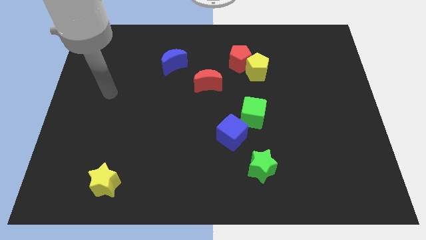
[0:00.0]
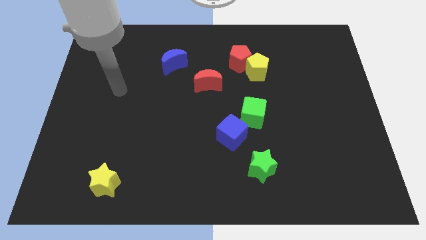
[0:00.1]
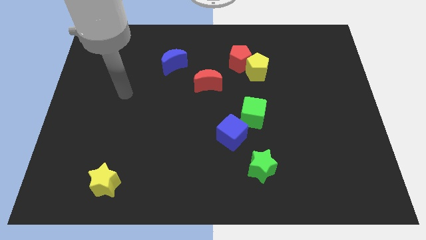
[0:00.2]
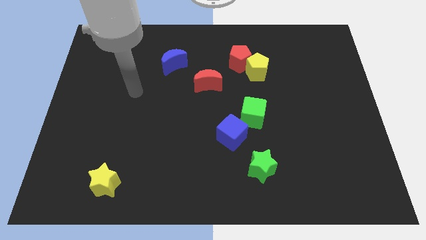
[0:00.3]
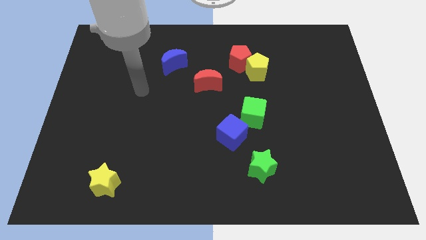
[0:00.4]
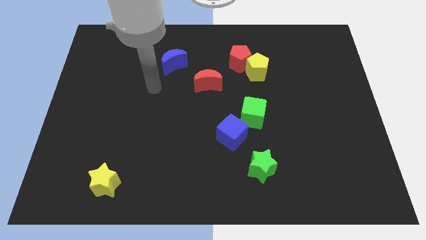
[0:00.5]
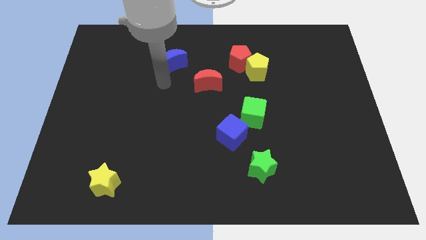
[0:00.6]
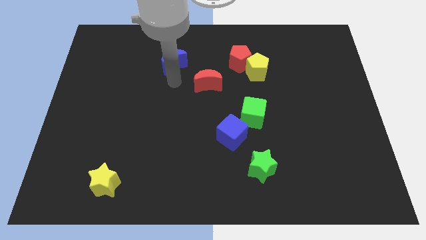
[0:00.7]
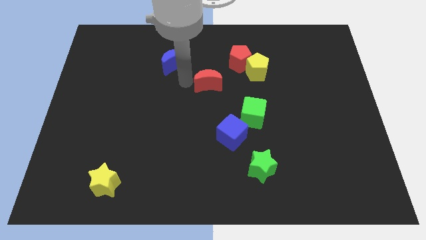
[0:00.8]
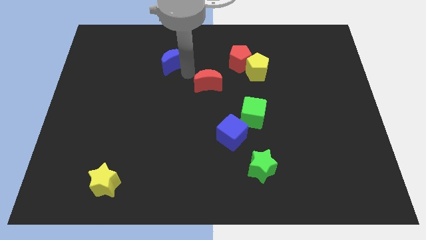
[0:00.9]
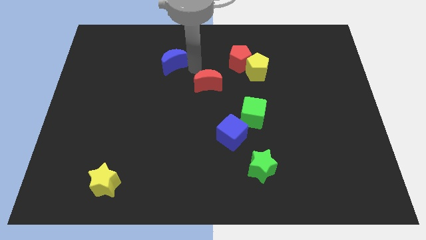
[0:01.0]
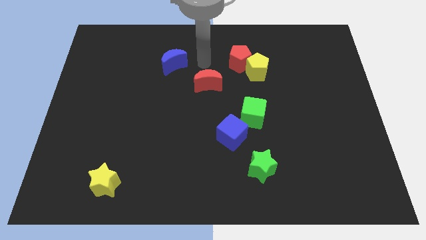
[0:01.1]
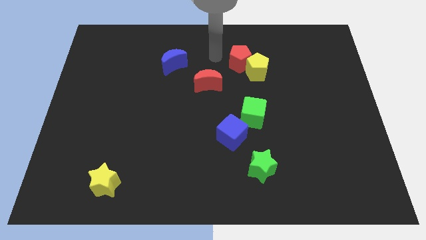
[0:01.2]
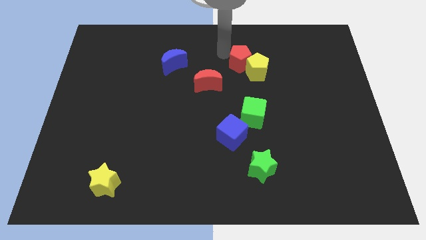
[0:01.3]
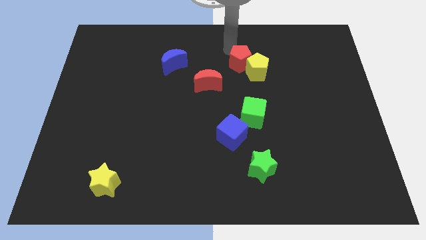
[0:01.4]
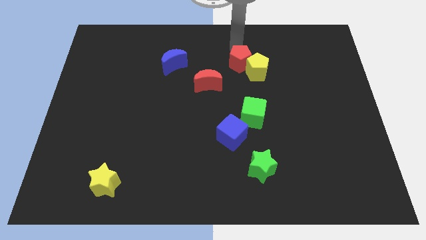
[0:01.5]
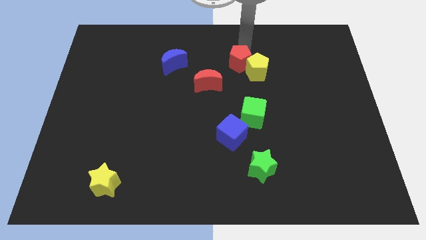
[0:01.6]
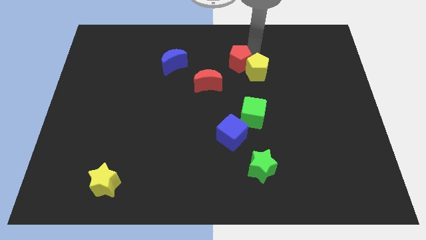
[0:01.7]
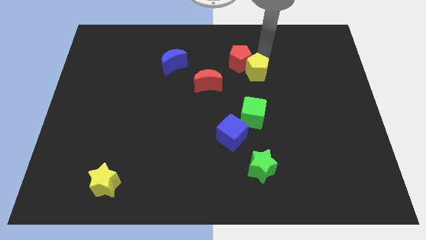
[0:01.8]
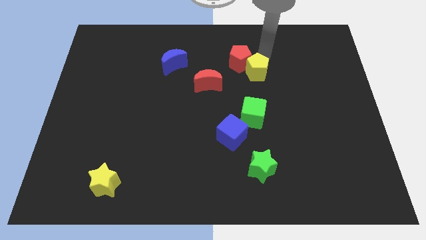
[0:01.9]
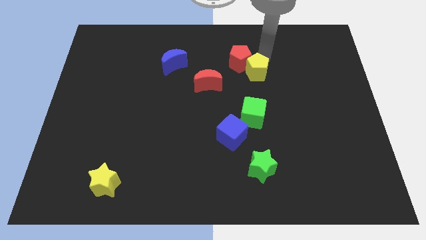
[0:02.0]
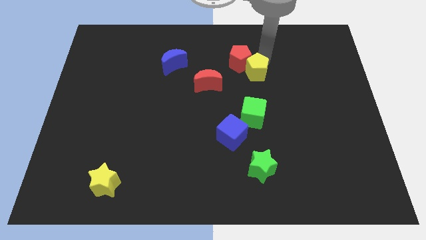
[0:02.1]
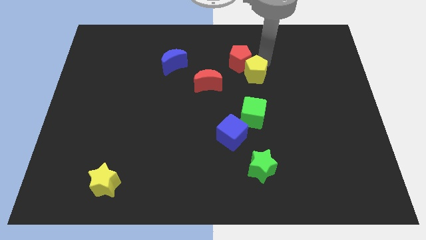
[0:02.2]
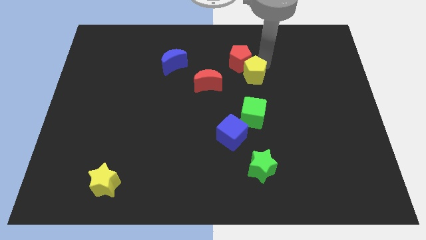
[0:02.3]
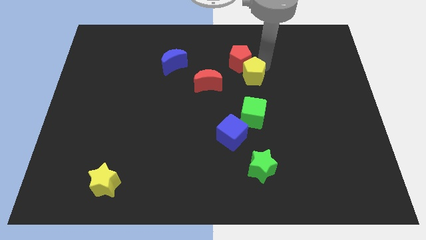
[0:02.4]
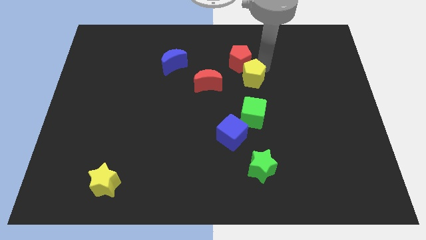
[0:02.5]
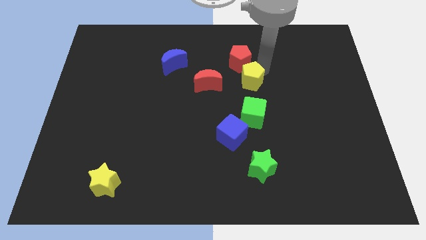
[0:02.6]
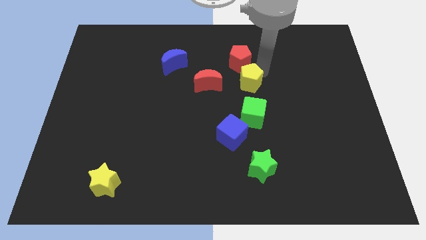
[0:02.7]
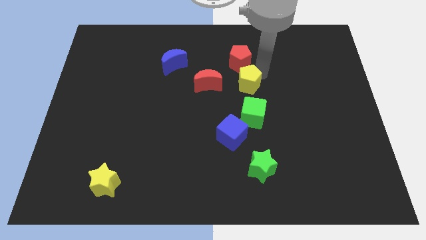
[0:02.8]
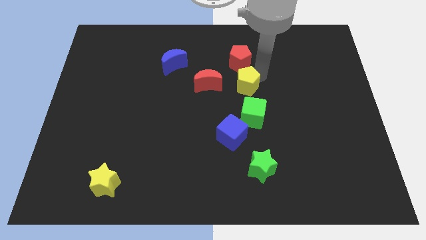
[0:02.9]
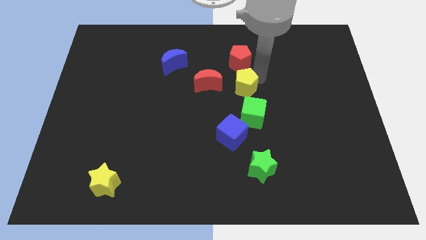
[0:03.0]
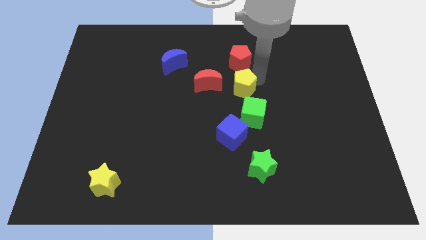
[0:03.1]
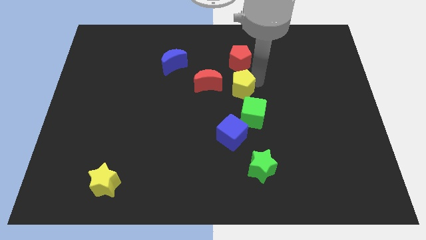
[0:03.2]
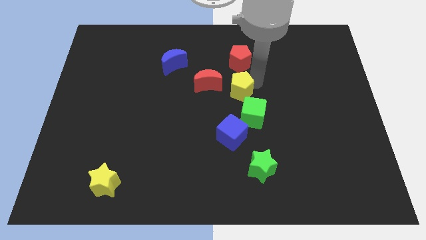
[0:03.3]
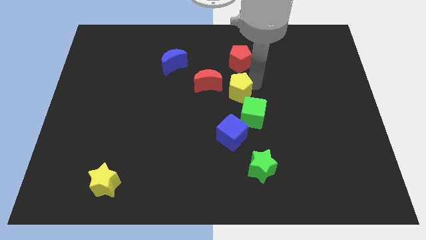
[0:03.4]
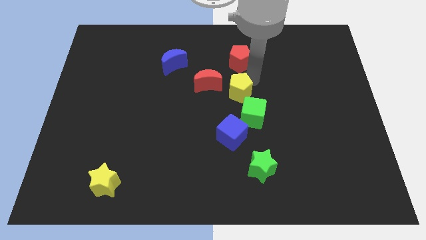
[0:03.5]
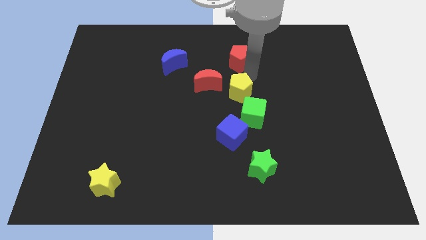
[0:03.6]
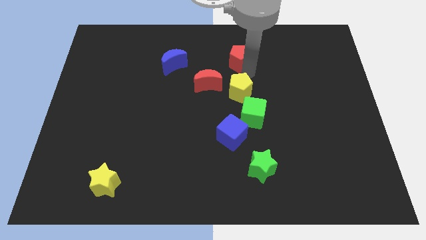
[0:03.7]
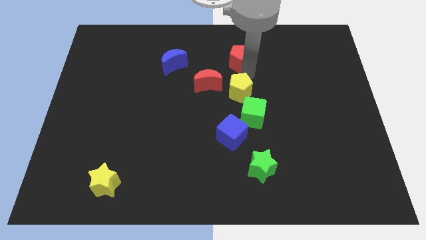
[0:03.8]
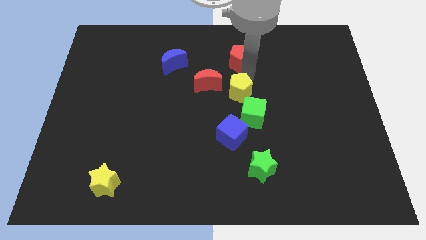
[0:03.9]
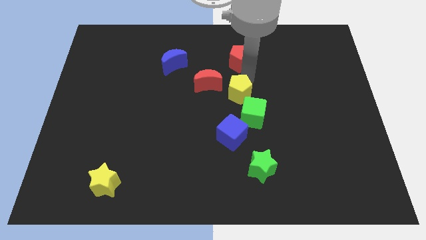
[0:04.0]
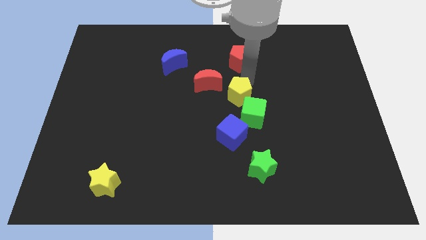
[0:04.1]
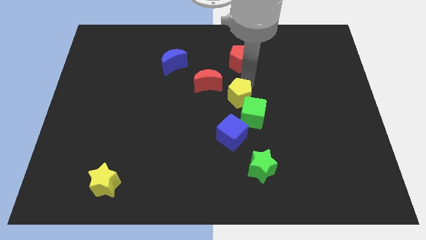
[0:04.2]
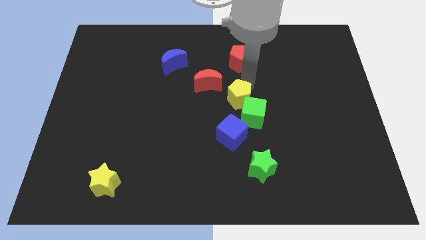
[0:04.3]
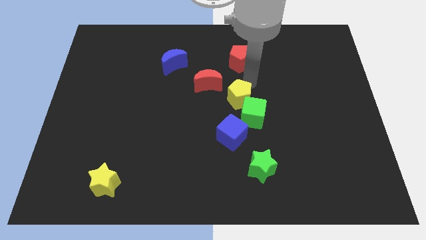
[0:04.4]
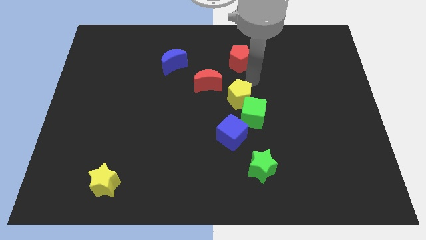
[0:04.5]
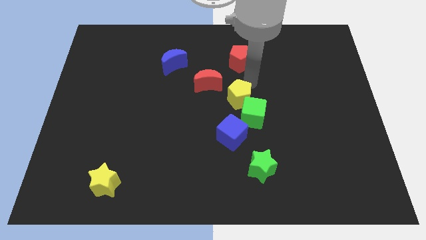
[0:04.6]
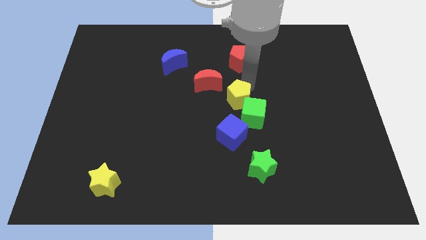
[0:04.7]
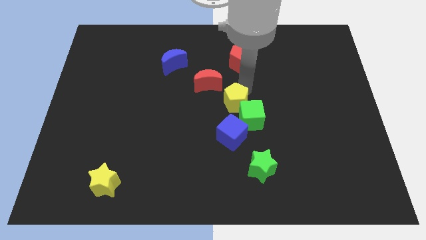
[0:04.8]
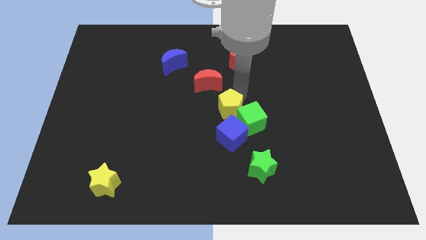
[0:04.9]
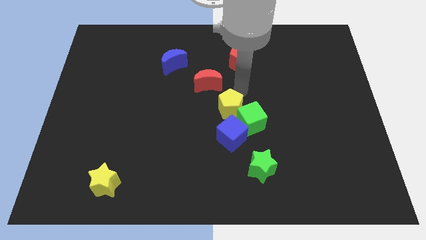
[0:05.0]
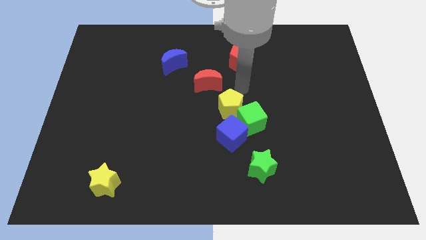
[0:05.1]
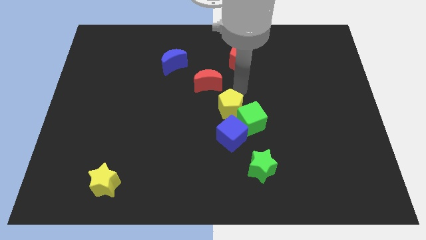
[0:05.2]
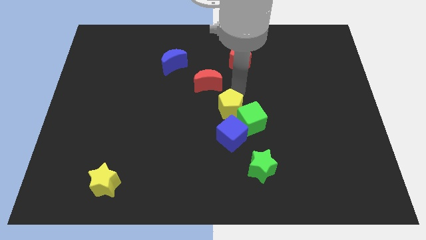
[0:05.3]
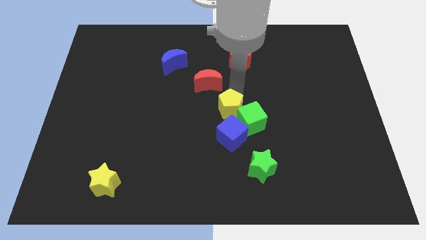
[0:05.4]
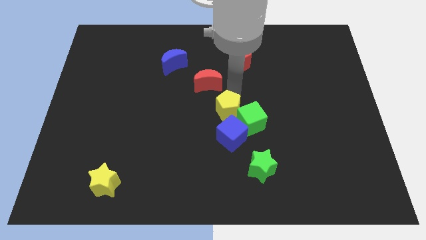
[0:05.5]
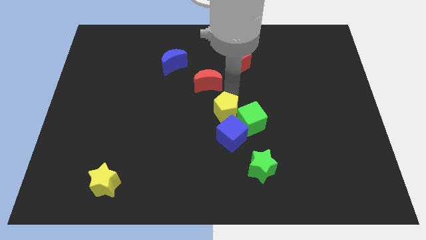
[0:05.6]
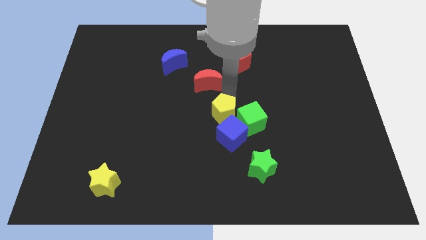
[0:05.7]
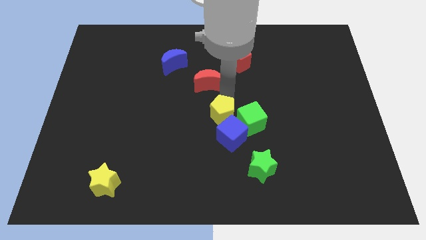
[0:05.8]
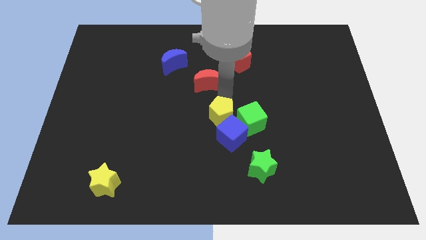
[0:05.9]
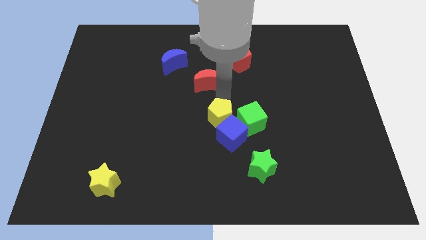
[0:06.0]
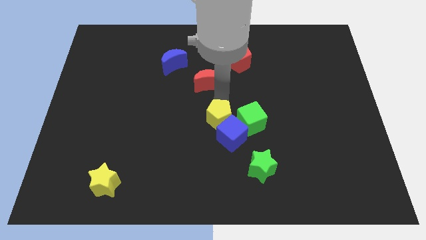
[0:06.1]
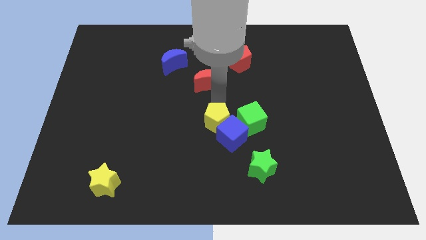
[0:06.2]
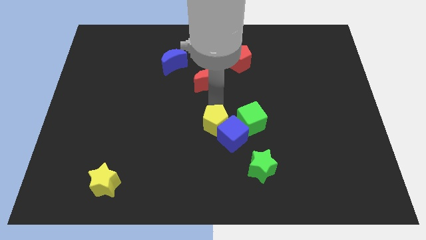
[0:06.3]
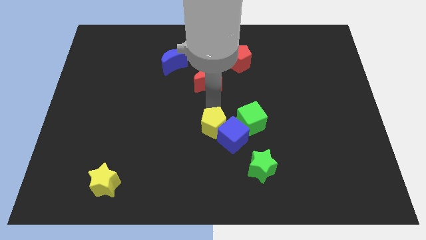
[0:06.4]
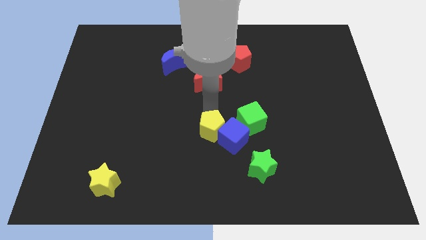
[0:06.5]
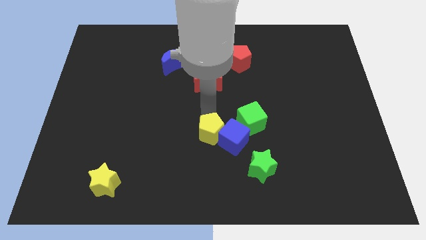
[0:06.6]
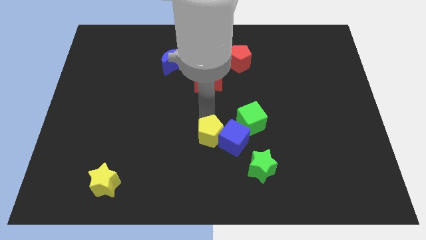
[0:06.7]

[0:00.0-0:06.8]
push the yellow pentagon diagonally down and to the left of the blue cube
